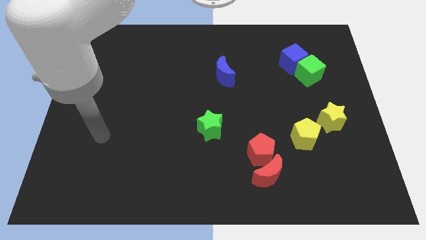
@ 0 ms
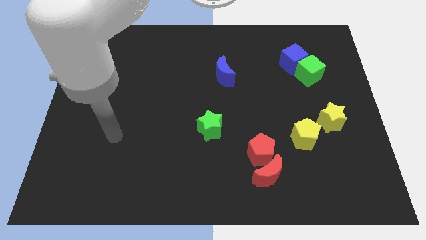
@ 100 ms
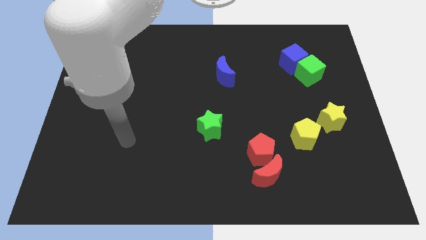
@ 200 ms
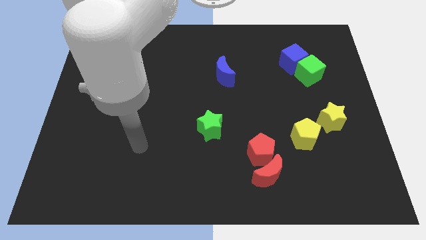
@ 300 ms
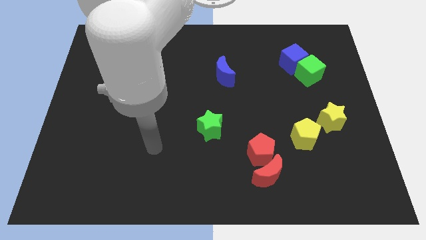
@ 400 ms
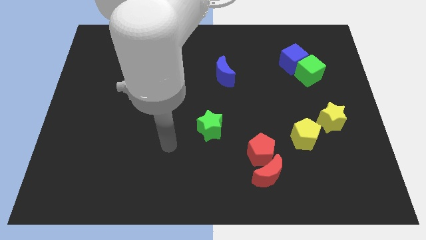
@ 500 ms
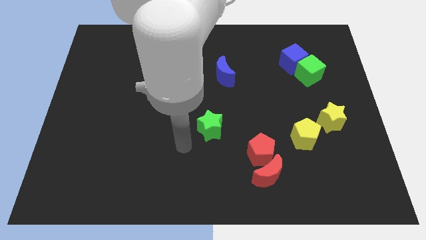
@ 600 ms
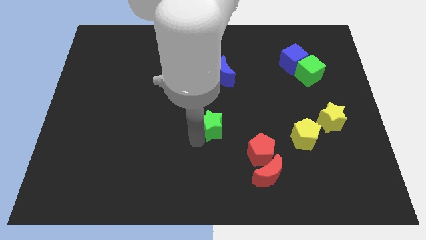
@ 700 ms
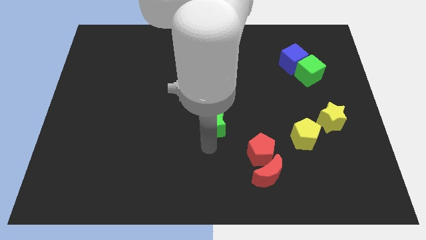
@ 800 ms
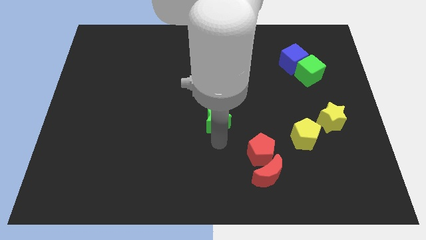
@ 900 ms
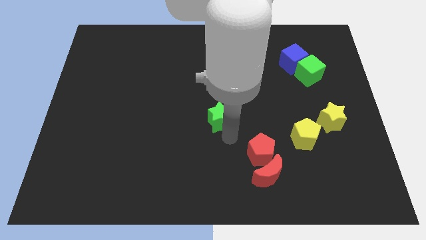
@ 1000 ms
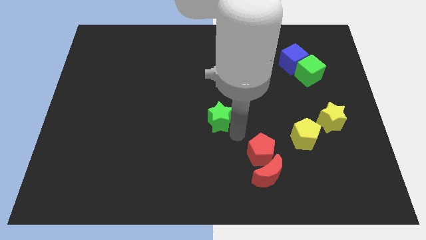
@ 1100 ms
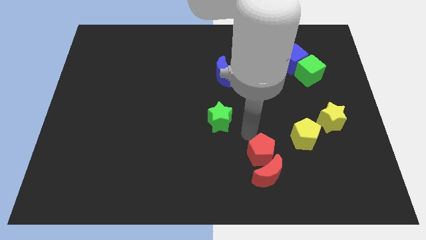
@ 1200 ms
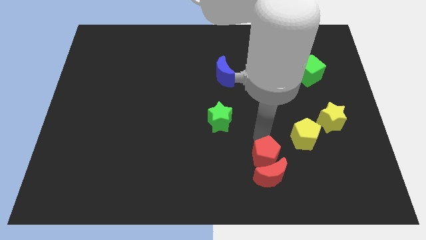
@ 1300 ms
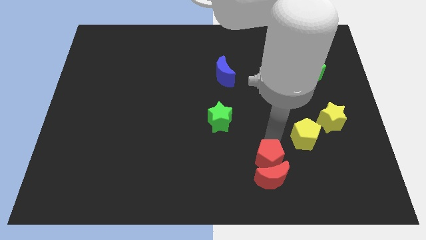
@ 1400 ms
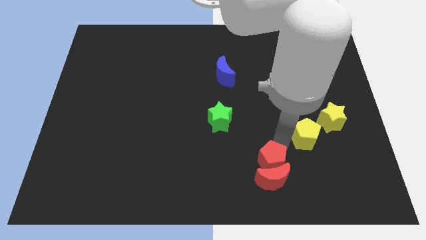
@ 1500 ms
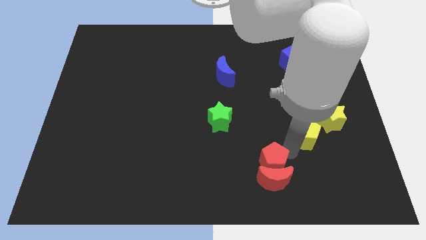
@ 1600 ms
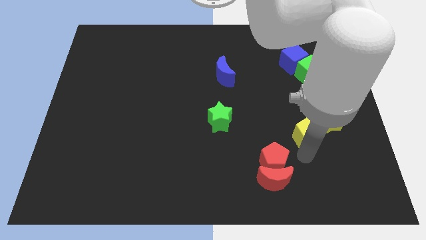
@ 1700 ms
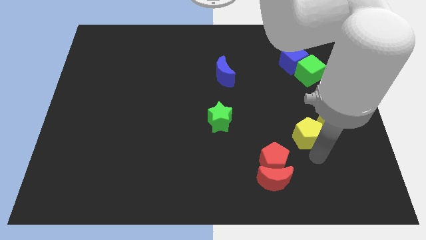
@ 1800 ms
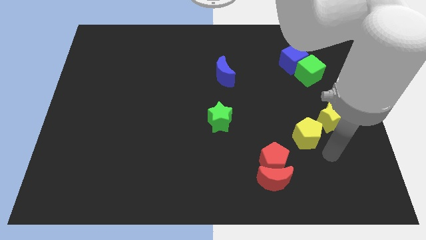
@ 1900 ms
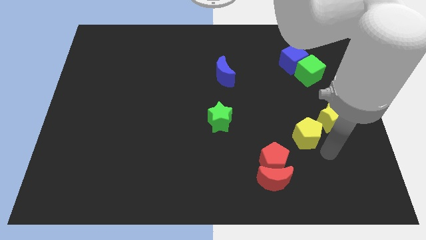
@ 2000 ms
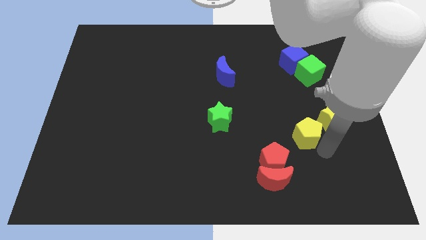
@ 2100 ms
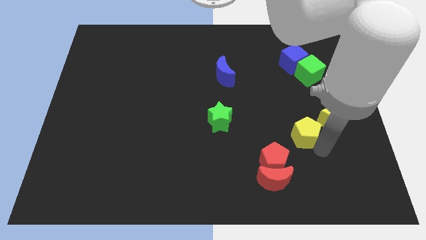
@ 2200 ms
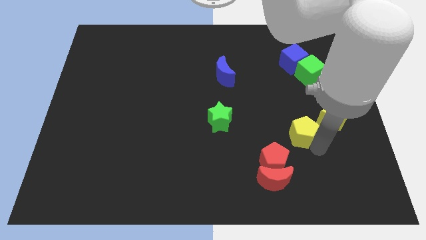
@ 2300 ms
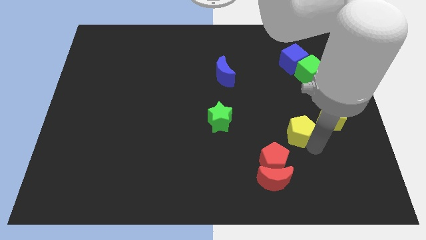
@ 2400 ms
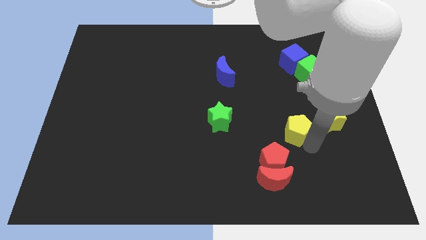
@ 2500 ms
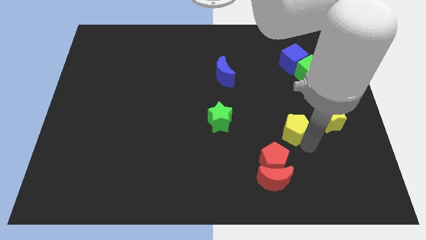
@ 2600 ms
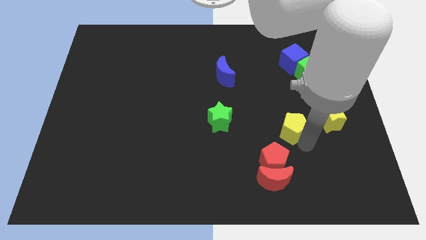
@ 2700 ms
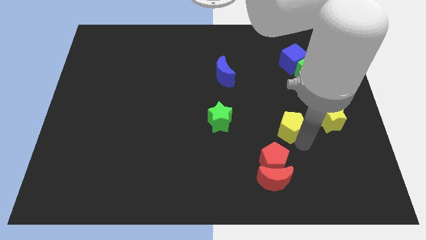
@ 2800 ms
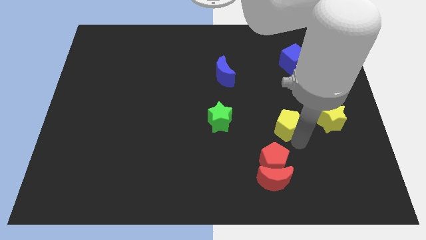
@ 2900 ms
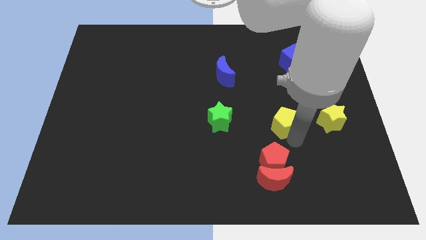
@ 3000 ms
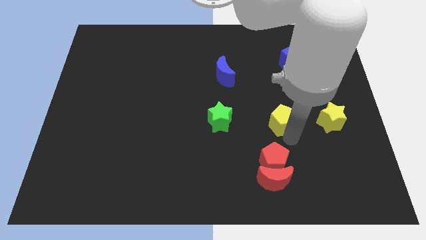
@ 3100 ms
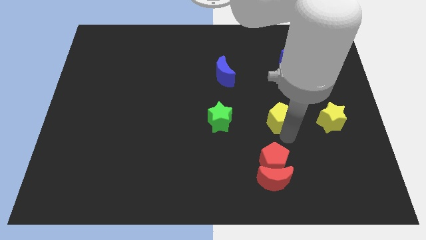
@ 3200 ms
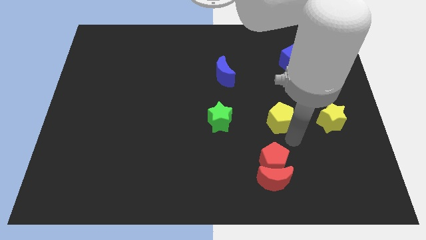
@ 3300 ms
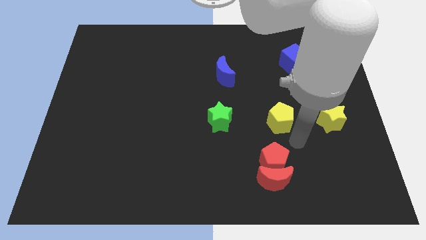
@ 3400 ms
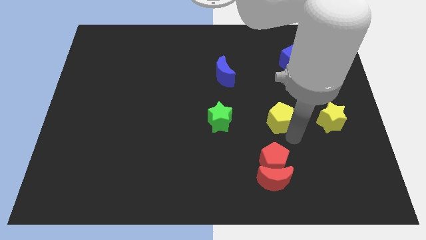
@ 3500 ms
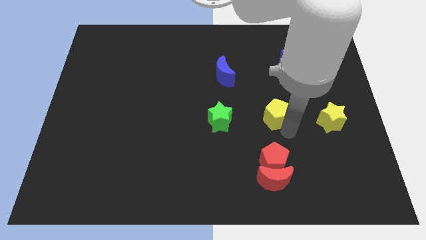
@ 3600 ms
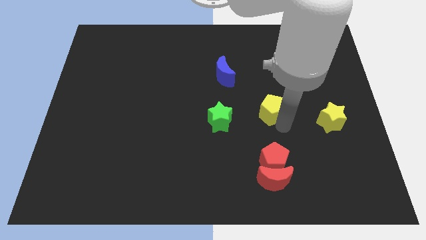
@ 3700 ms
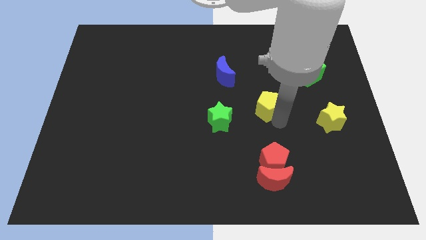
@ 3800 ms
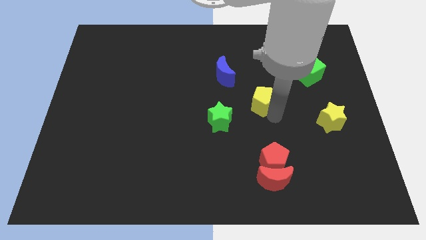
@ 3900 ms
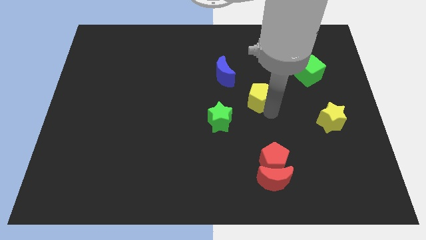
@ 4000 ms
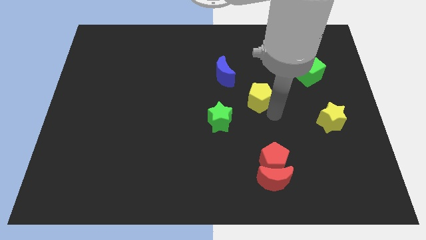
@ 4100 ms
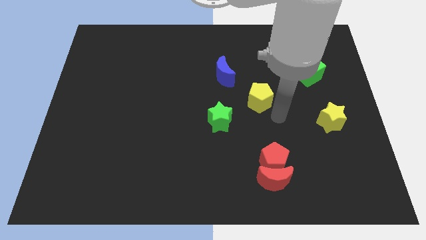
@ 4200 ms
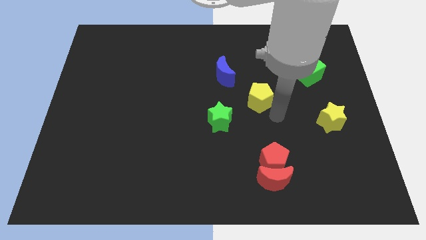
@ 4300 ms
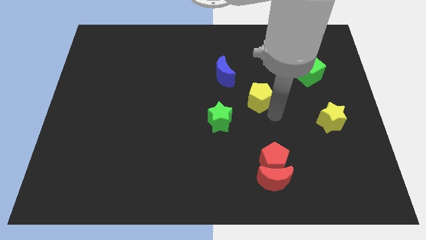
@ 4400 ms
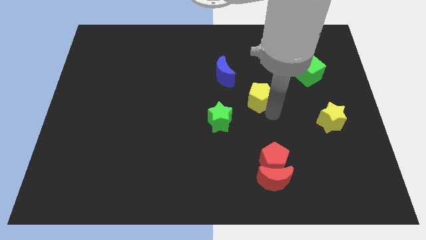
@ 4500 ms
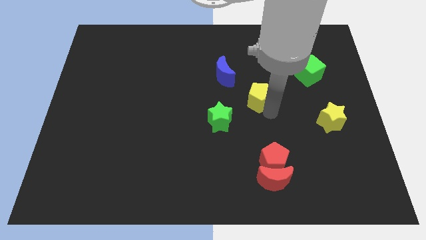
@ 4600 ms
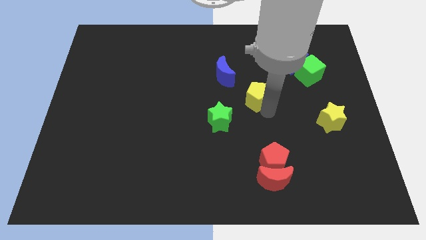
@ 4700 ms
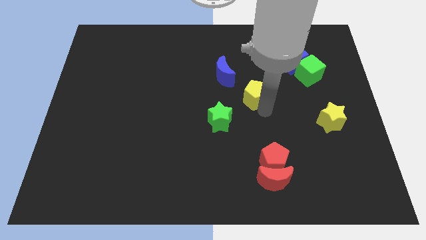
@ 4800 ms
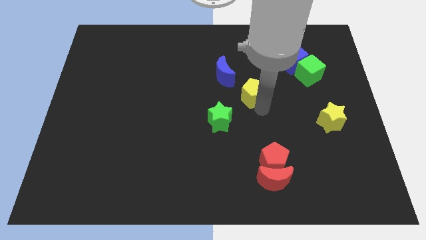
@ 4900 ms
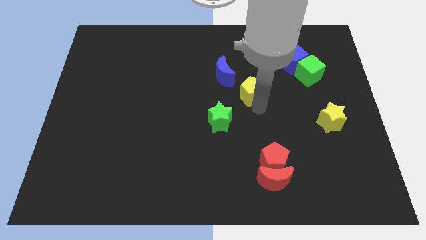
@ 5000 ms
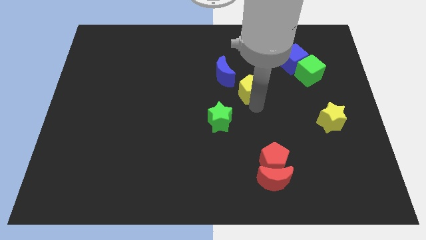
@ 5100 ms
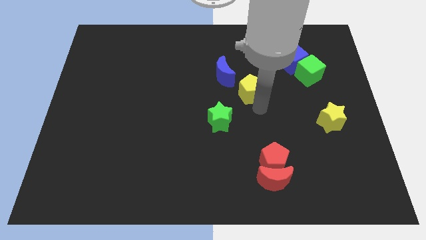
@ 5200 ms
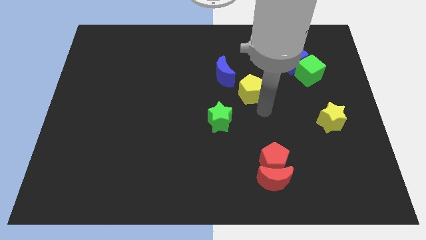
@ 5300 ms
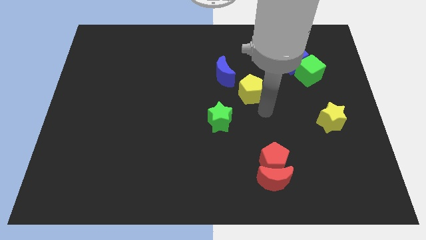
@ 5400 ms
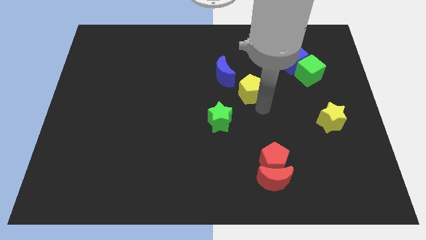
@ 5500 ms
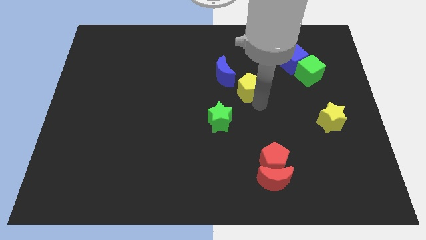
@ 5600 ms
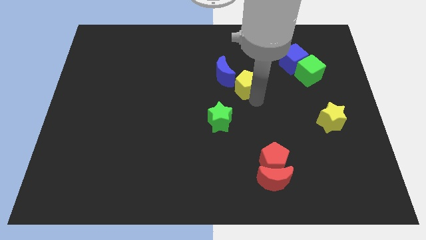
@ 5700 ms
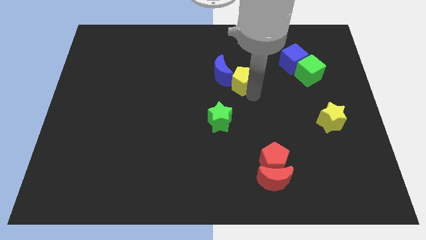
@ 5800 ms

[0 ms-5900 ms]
move the yellow pentagon close to the blue moon

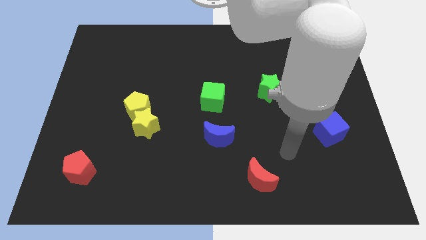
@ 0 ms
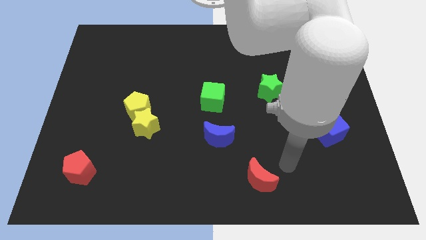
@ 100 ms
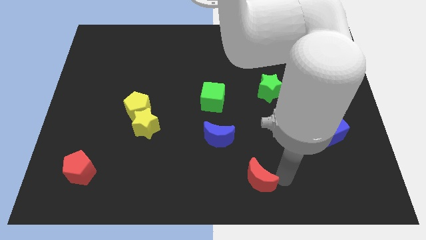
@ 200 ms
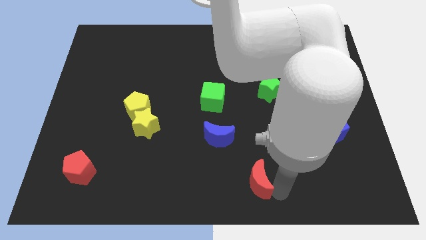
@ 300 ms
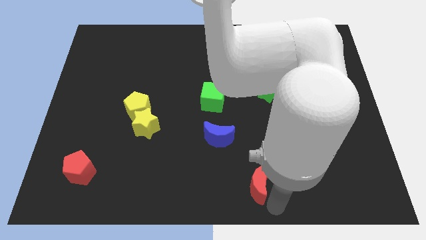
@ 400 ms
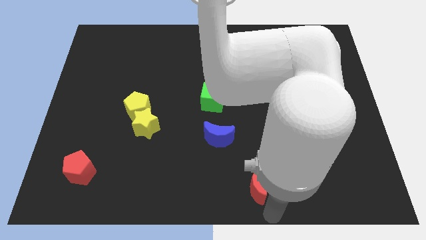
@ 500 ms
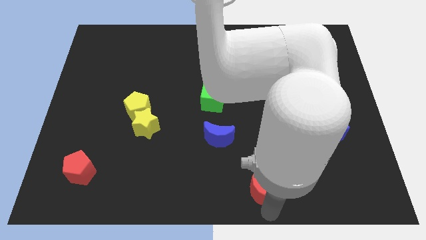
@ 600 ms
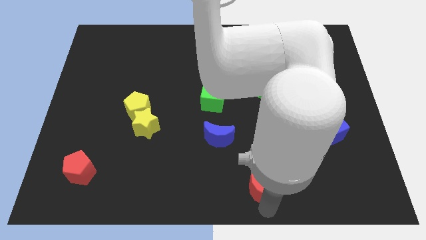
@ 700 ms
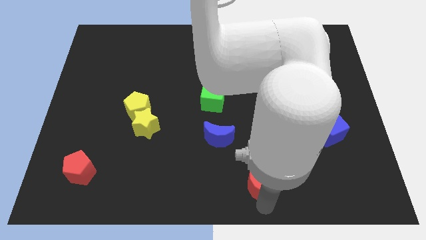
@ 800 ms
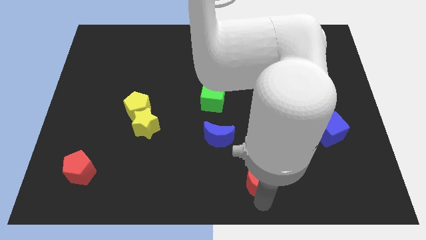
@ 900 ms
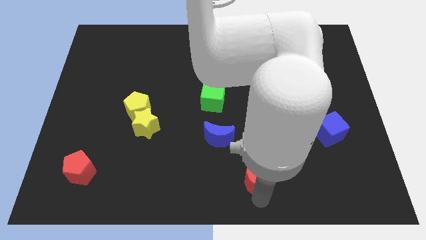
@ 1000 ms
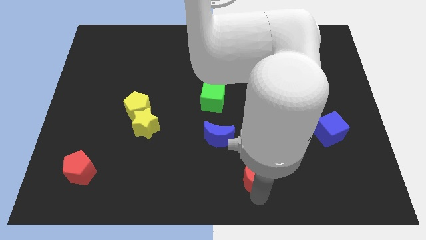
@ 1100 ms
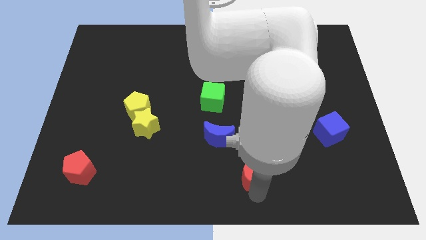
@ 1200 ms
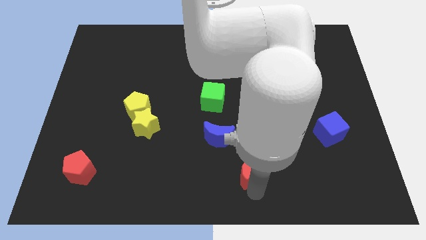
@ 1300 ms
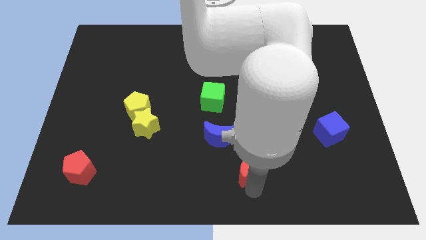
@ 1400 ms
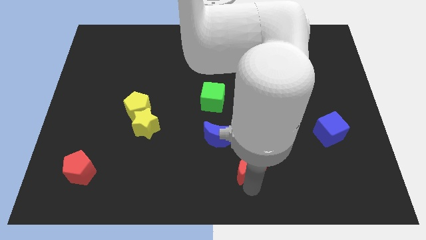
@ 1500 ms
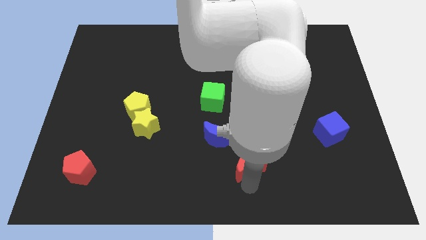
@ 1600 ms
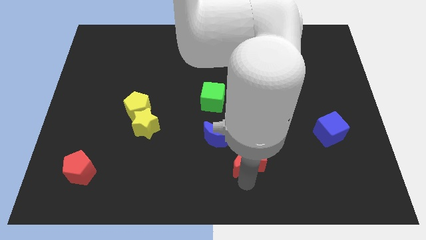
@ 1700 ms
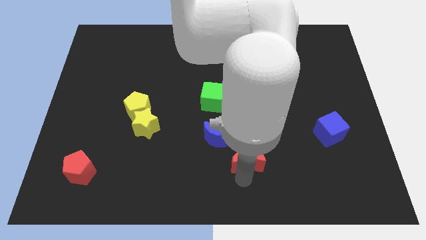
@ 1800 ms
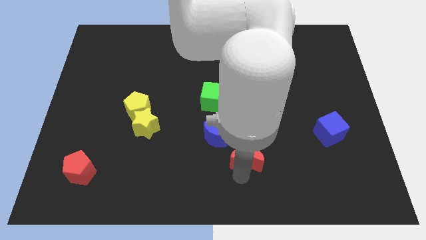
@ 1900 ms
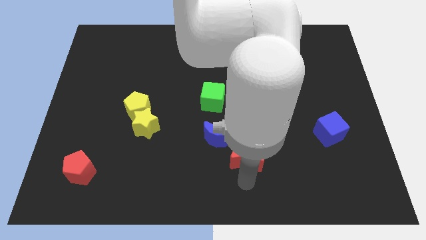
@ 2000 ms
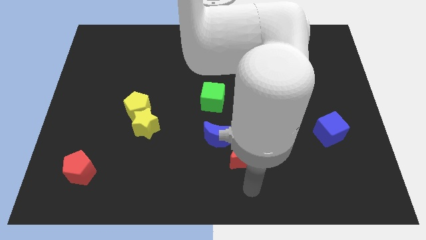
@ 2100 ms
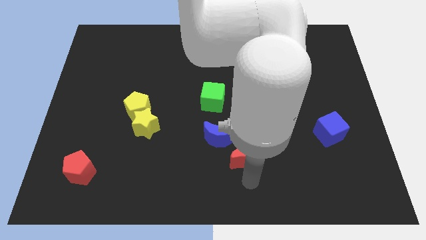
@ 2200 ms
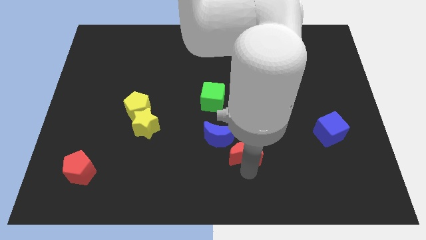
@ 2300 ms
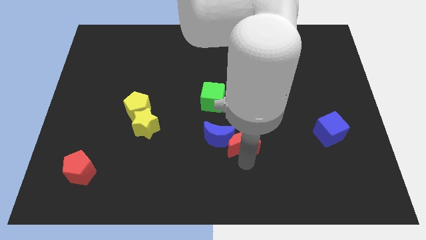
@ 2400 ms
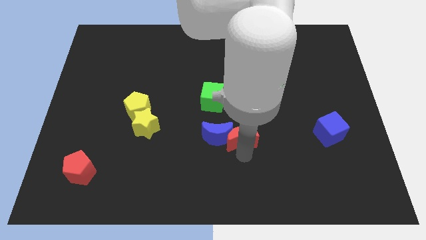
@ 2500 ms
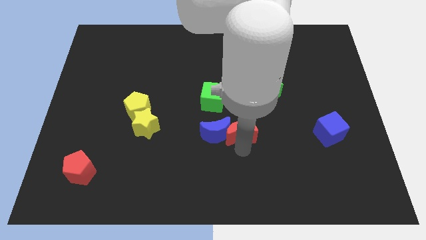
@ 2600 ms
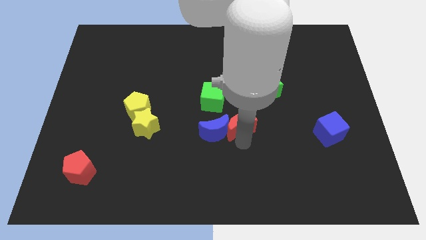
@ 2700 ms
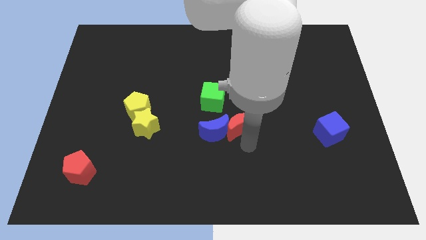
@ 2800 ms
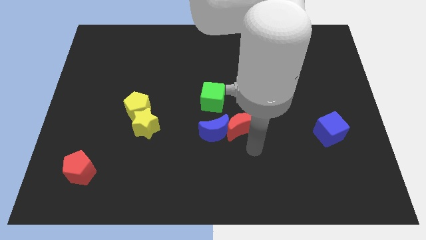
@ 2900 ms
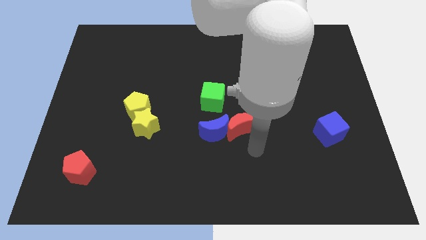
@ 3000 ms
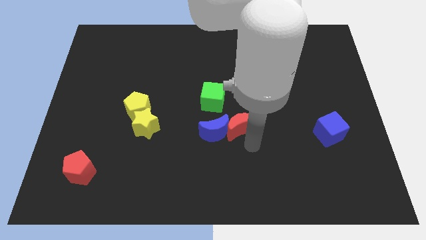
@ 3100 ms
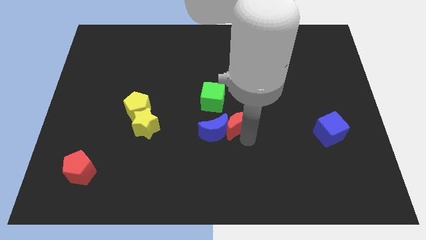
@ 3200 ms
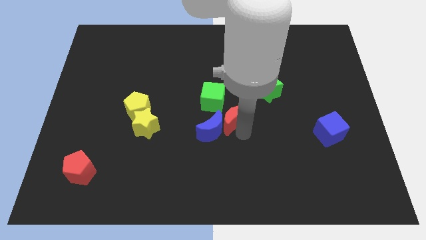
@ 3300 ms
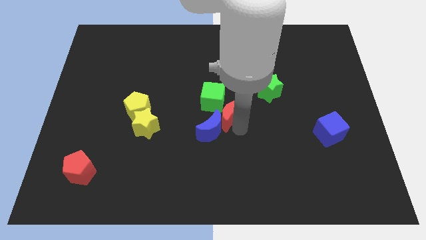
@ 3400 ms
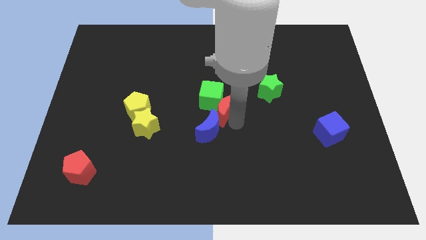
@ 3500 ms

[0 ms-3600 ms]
put the red moon next to the green cube
